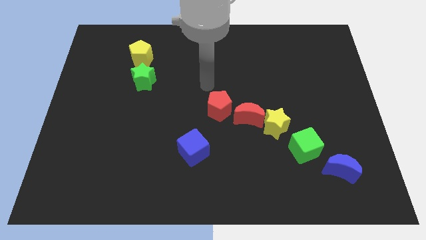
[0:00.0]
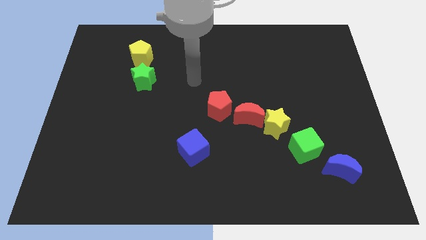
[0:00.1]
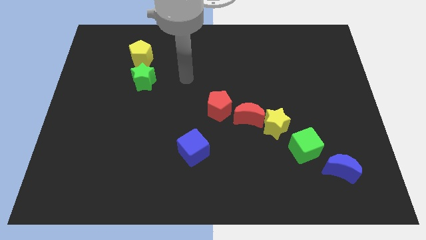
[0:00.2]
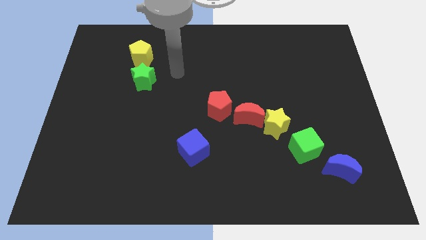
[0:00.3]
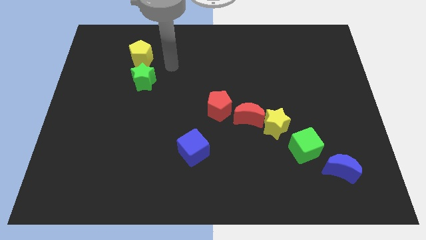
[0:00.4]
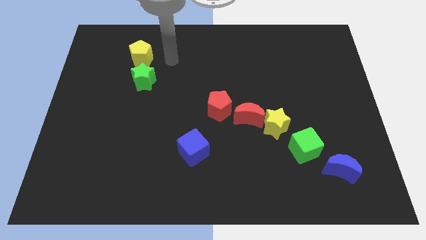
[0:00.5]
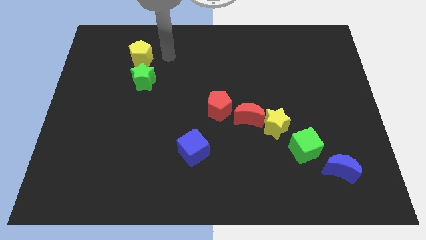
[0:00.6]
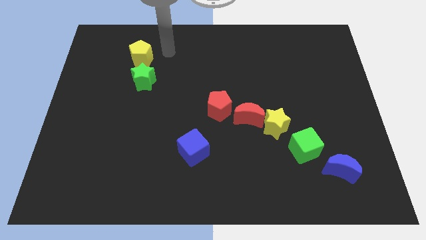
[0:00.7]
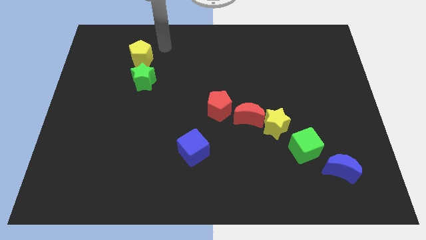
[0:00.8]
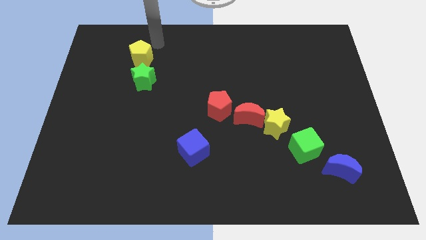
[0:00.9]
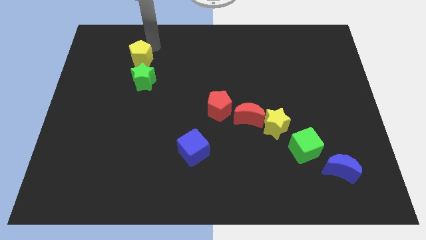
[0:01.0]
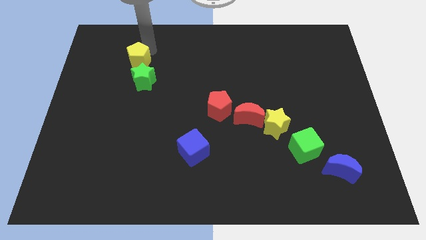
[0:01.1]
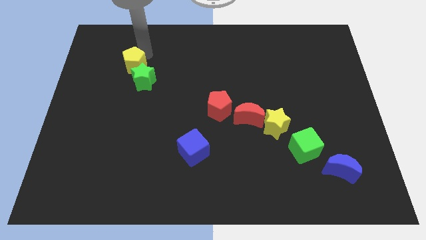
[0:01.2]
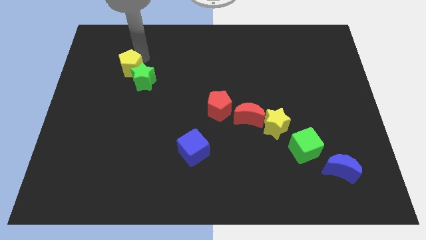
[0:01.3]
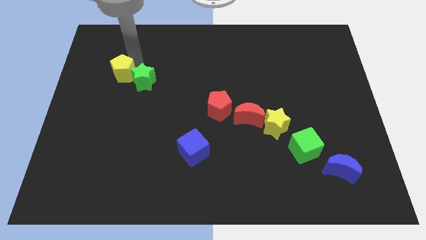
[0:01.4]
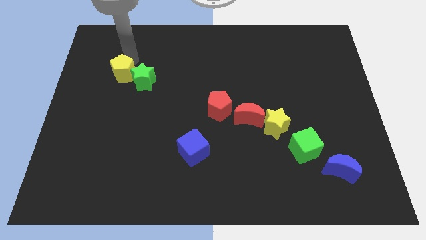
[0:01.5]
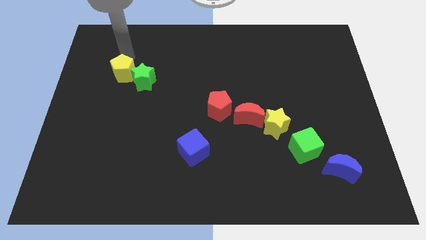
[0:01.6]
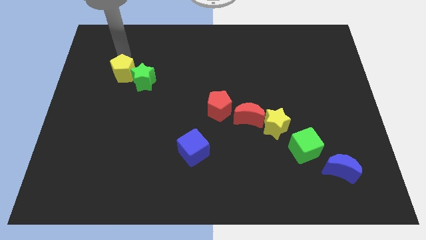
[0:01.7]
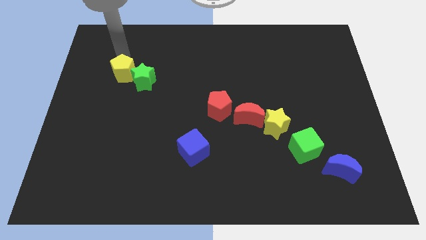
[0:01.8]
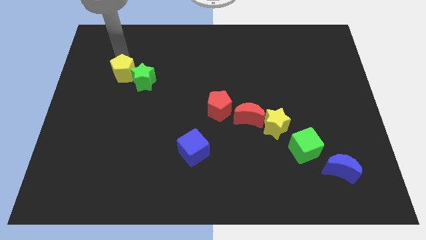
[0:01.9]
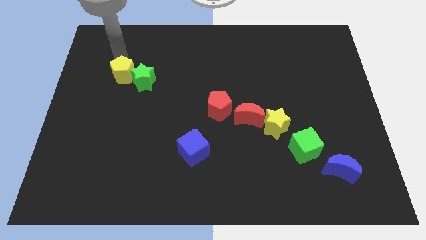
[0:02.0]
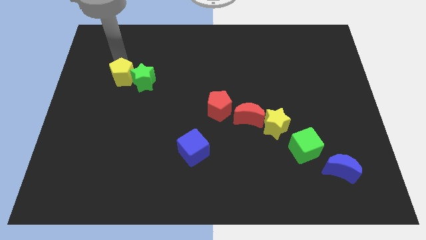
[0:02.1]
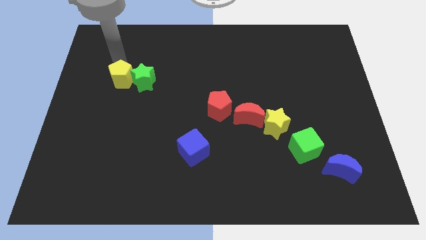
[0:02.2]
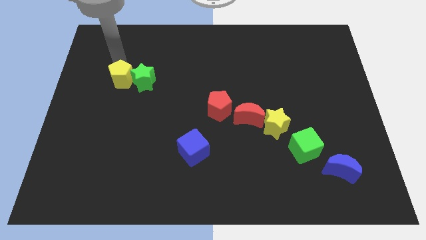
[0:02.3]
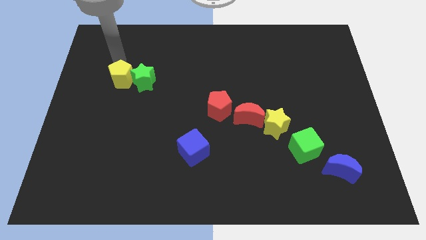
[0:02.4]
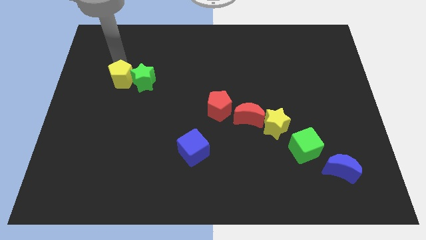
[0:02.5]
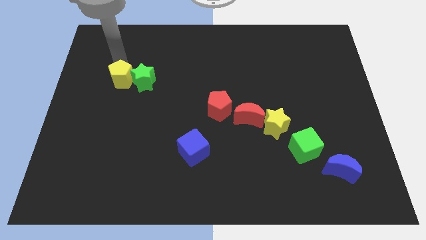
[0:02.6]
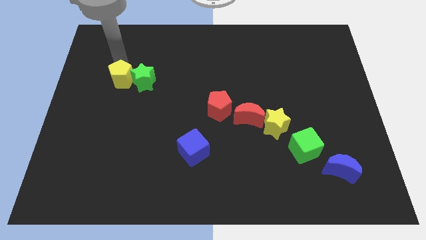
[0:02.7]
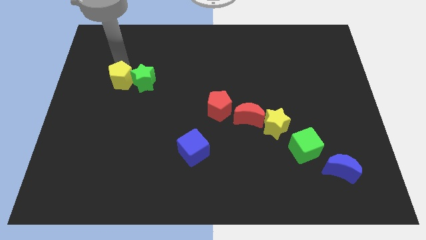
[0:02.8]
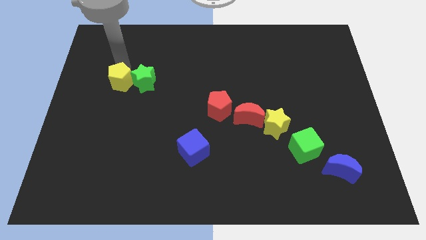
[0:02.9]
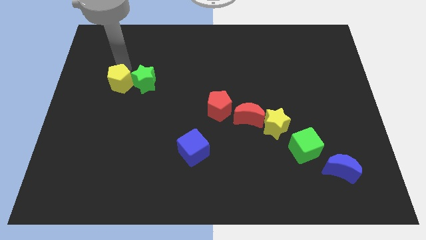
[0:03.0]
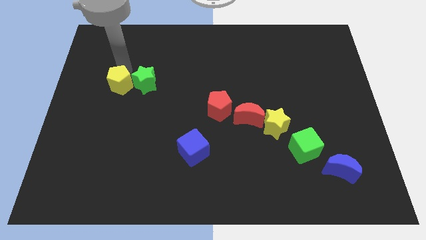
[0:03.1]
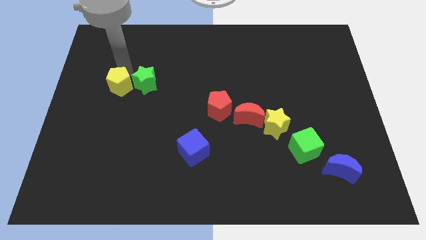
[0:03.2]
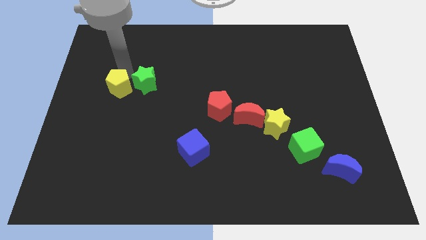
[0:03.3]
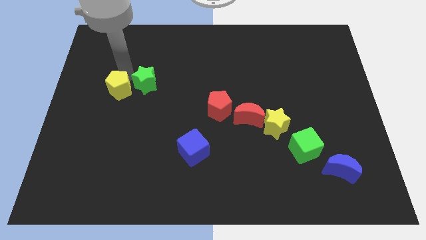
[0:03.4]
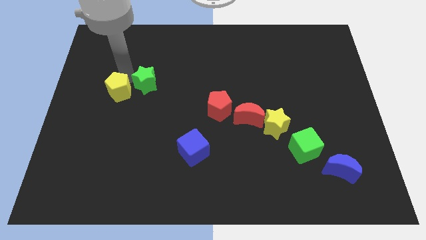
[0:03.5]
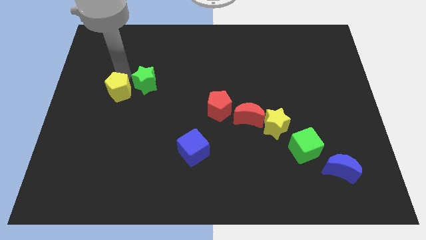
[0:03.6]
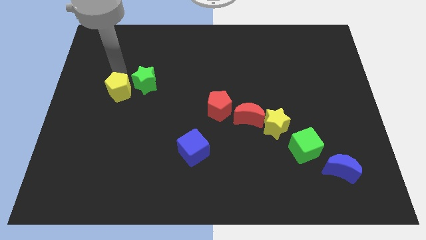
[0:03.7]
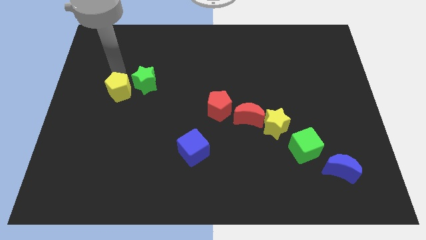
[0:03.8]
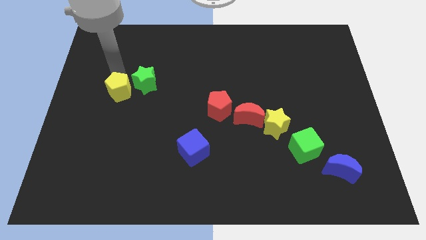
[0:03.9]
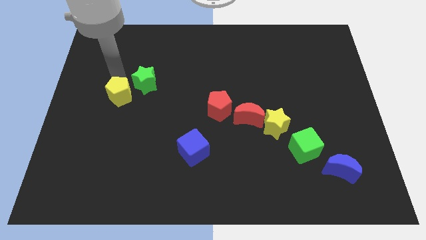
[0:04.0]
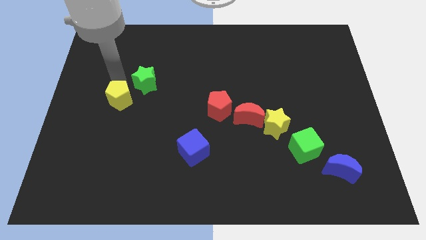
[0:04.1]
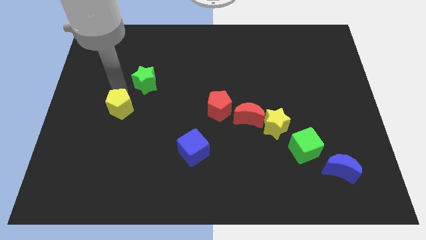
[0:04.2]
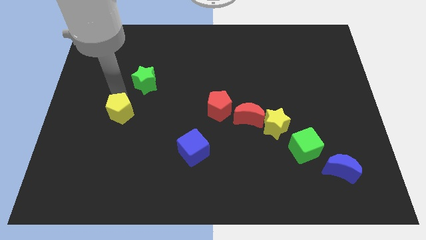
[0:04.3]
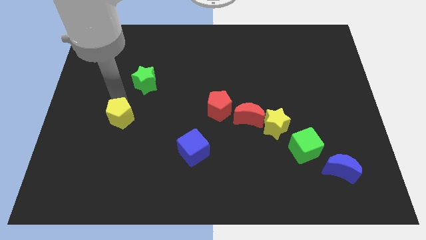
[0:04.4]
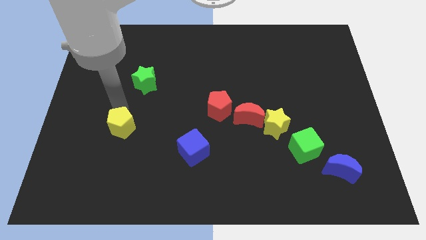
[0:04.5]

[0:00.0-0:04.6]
slide the yellow pentagon downwards

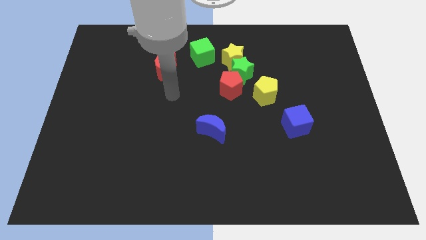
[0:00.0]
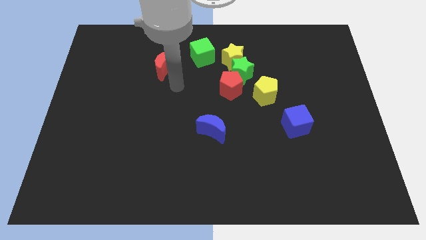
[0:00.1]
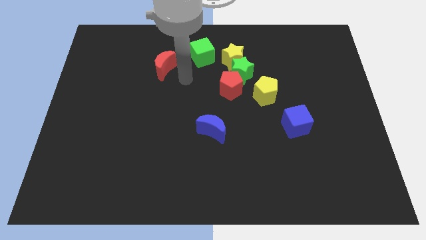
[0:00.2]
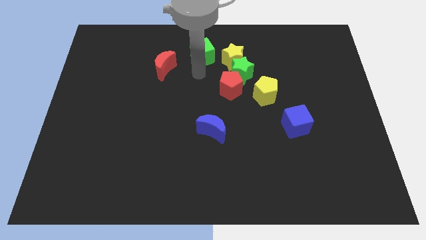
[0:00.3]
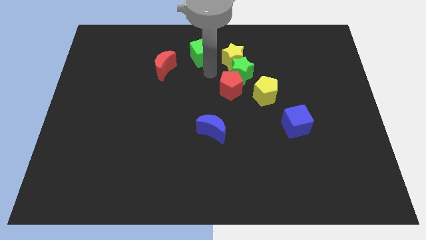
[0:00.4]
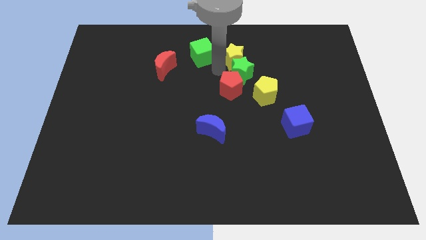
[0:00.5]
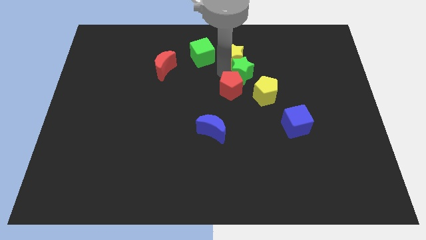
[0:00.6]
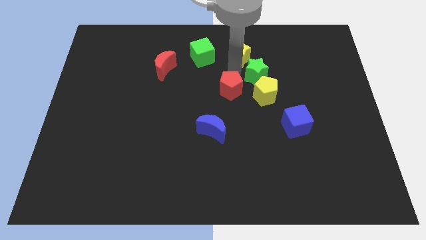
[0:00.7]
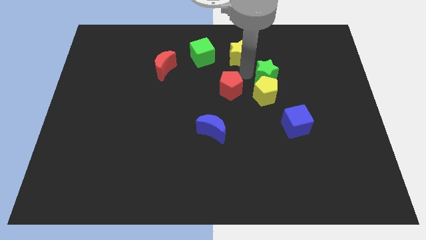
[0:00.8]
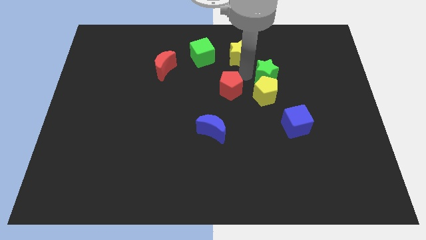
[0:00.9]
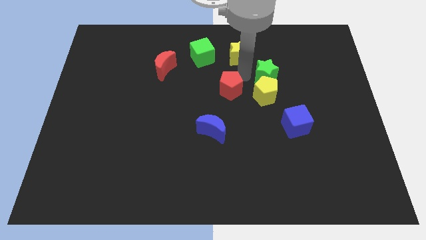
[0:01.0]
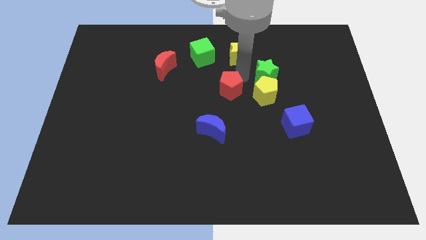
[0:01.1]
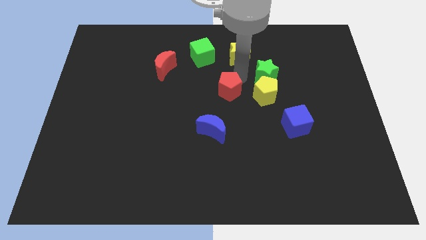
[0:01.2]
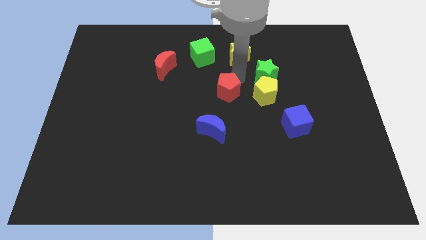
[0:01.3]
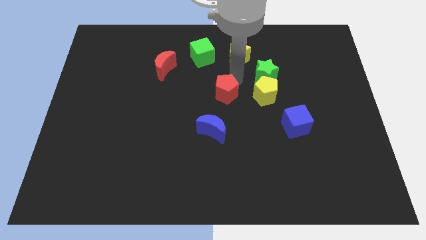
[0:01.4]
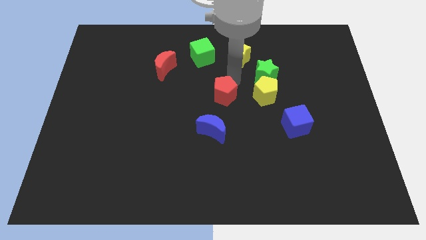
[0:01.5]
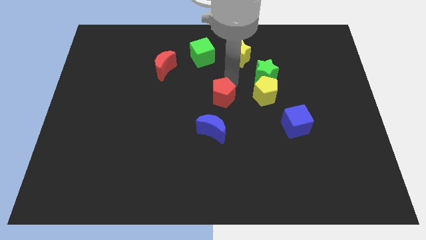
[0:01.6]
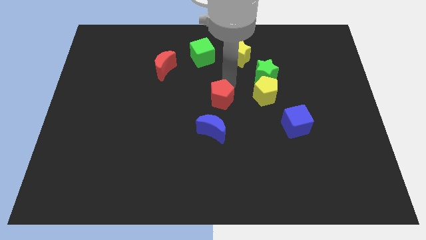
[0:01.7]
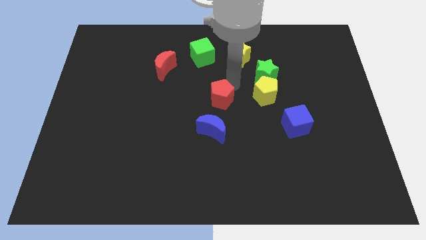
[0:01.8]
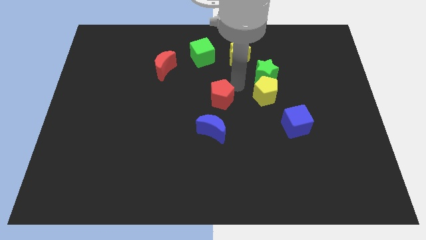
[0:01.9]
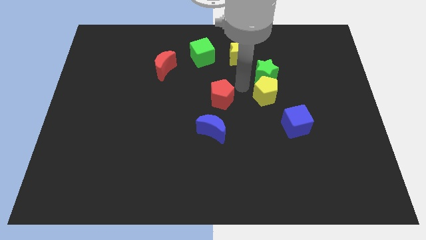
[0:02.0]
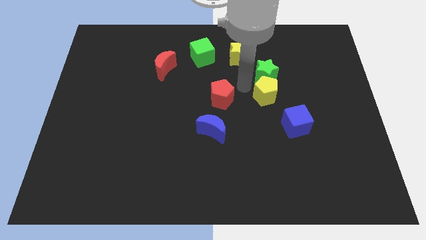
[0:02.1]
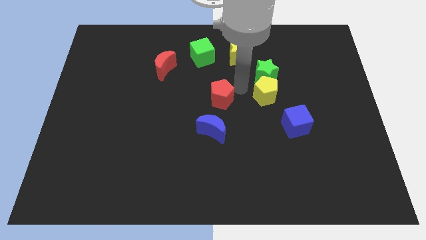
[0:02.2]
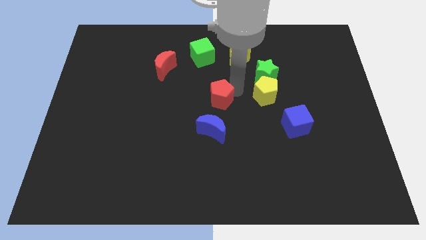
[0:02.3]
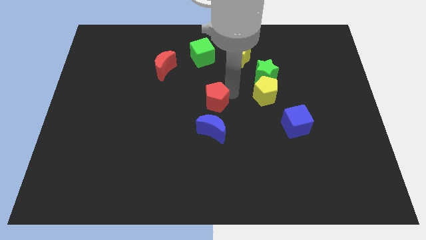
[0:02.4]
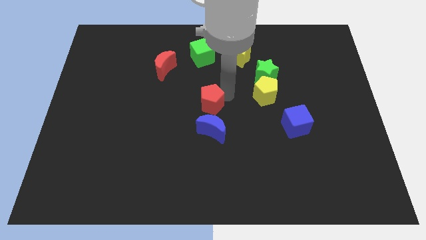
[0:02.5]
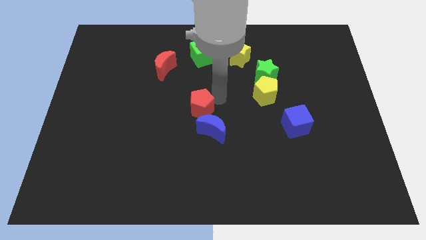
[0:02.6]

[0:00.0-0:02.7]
slide the red pentagon somewhat downwards and then to the left

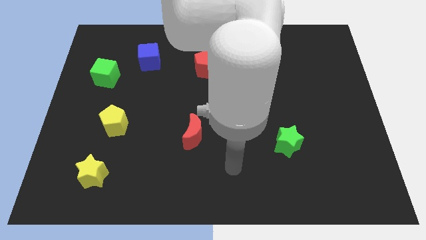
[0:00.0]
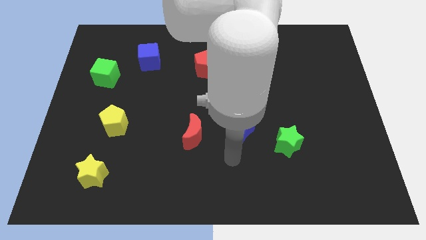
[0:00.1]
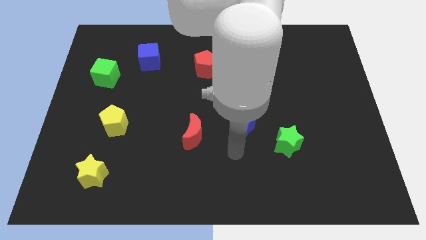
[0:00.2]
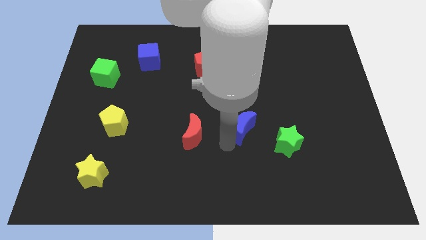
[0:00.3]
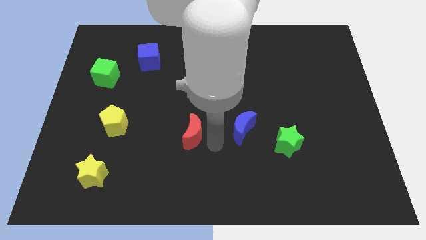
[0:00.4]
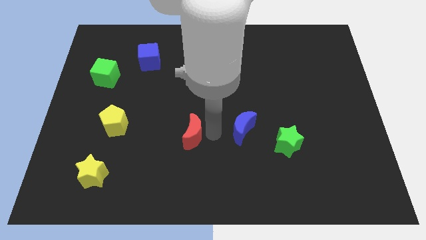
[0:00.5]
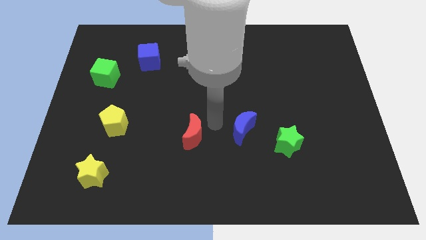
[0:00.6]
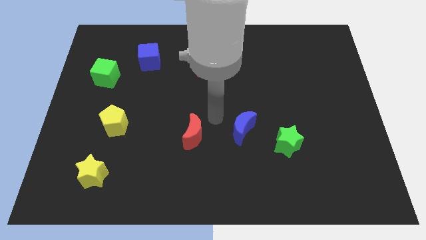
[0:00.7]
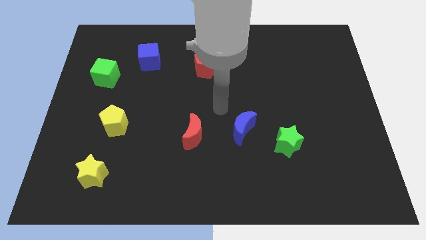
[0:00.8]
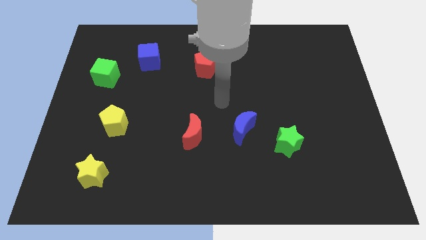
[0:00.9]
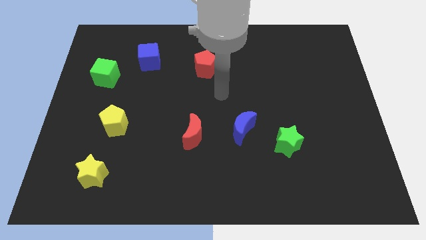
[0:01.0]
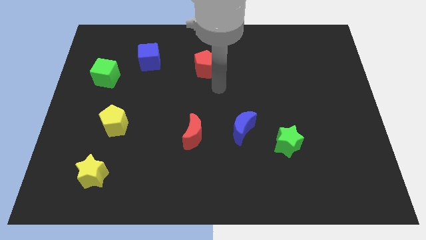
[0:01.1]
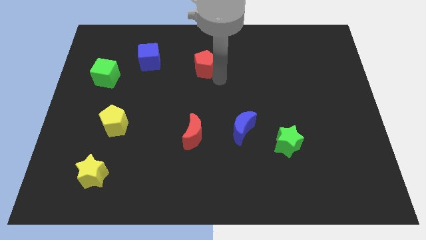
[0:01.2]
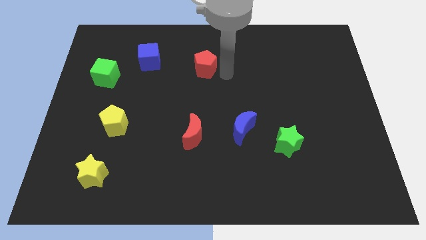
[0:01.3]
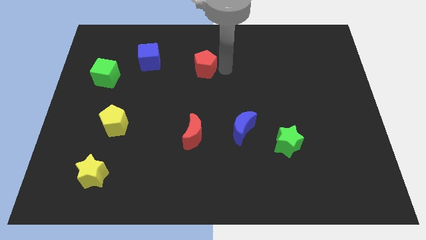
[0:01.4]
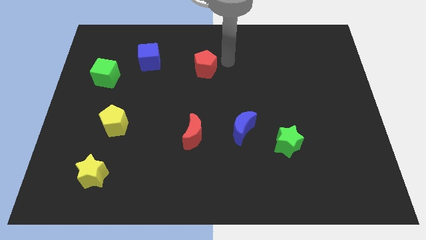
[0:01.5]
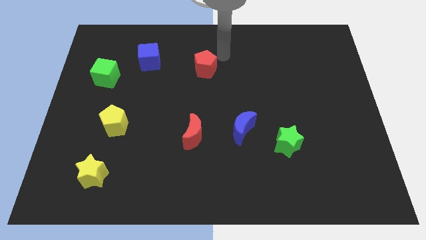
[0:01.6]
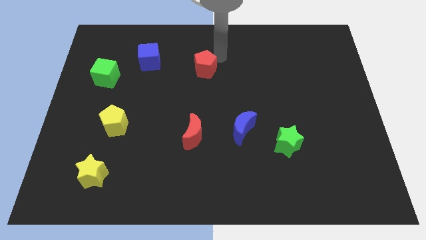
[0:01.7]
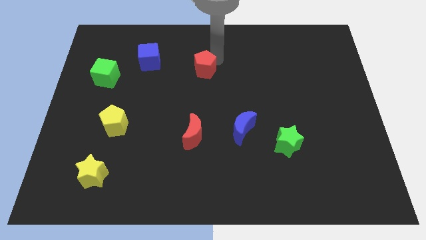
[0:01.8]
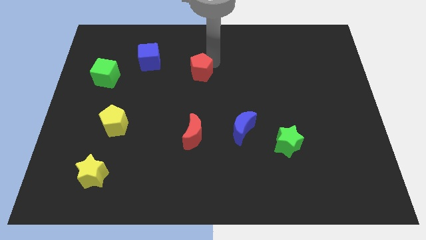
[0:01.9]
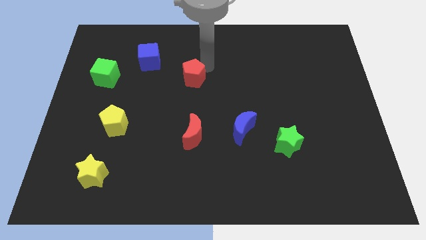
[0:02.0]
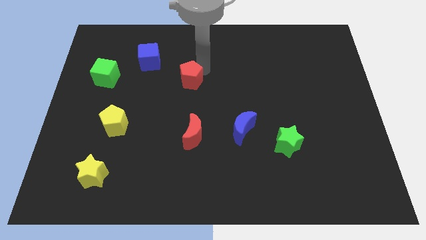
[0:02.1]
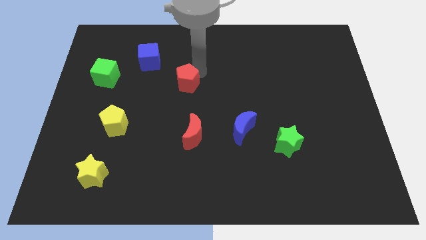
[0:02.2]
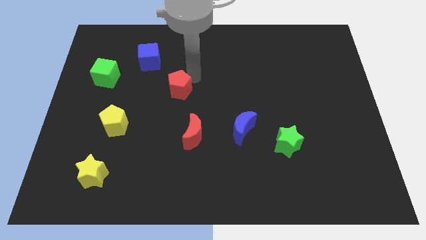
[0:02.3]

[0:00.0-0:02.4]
slightly push the red pentagon diagonally down and left
